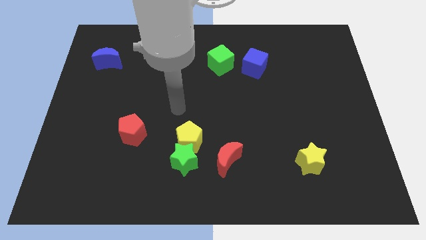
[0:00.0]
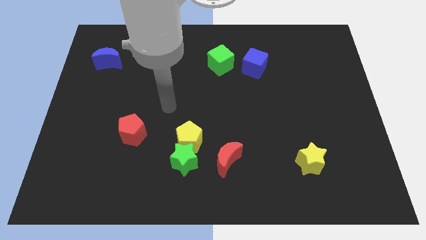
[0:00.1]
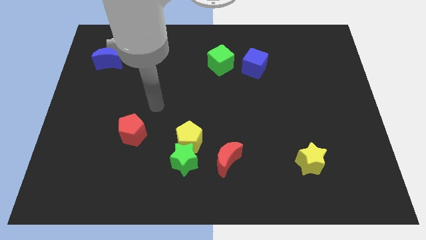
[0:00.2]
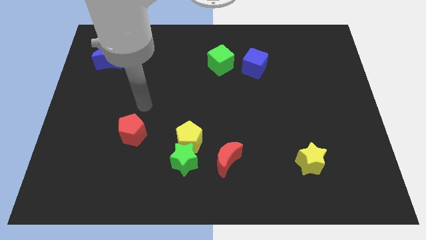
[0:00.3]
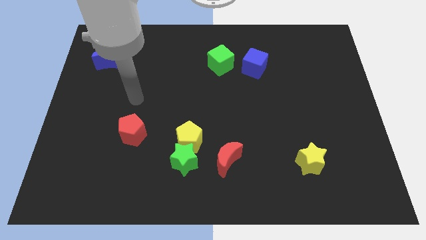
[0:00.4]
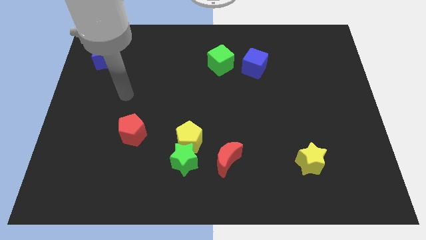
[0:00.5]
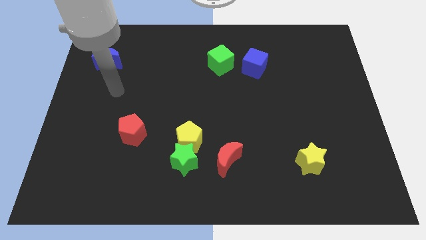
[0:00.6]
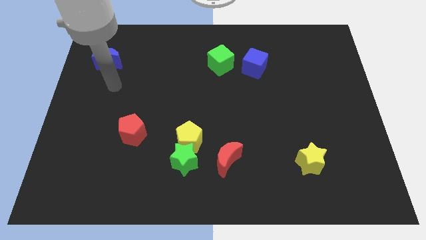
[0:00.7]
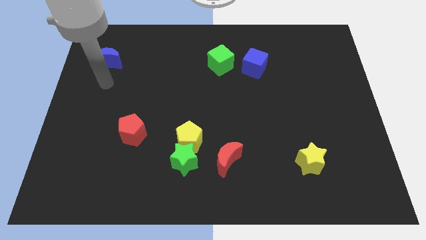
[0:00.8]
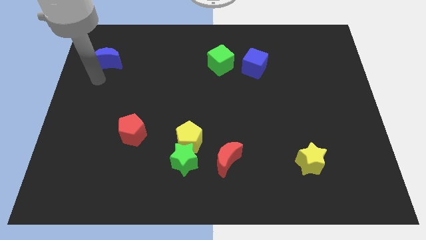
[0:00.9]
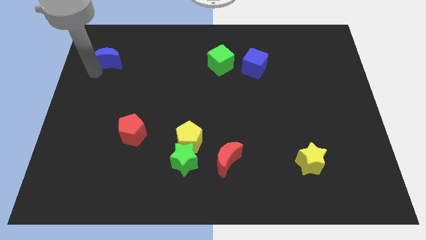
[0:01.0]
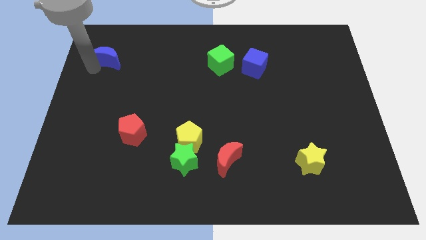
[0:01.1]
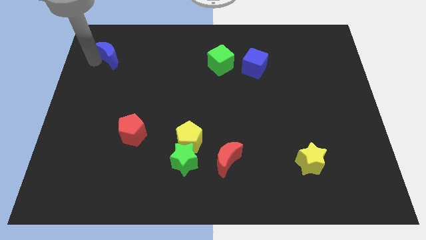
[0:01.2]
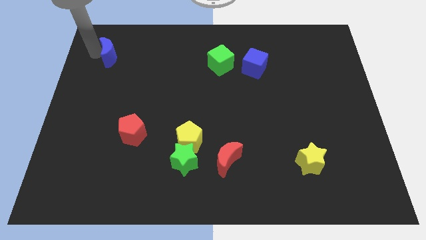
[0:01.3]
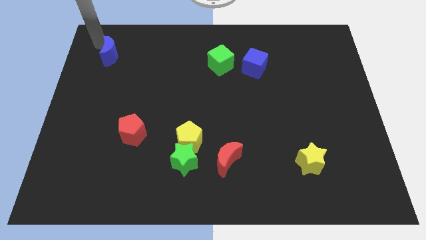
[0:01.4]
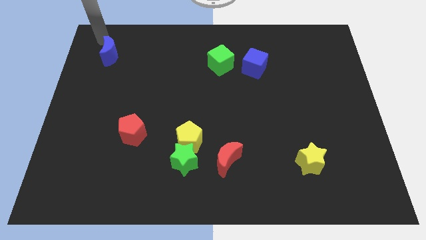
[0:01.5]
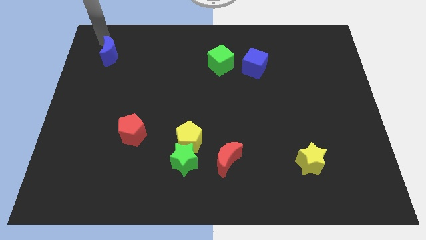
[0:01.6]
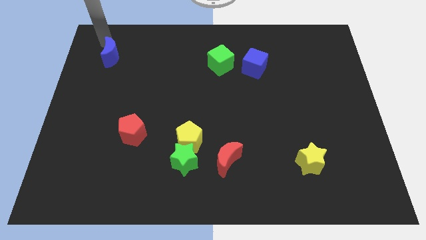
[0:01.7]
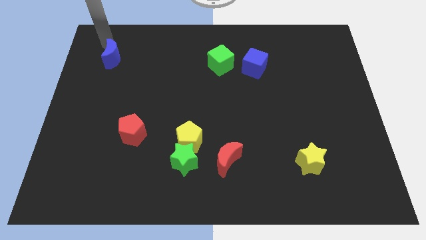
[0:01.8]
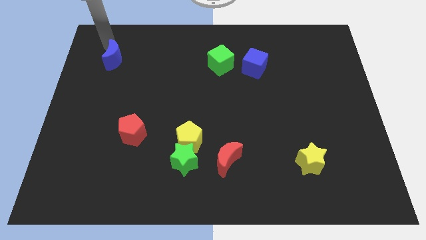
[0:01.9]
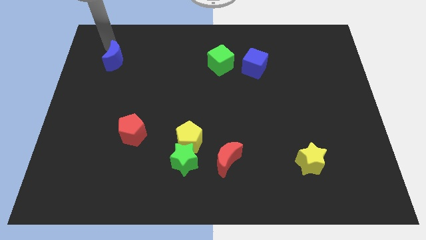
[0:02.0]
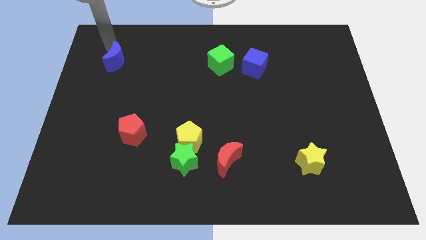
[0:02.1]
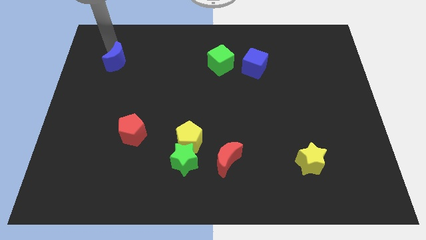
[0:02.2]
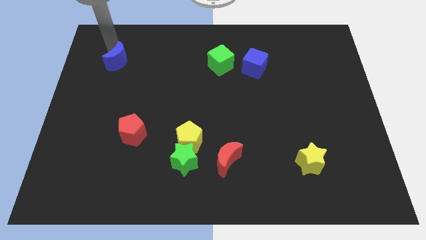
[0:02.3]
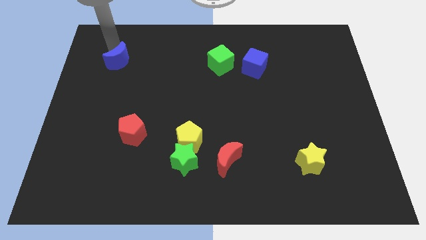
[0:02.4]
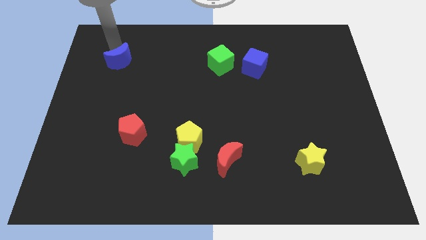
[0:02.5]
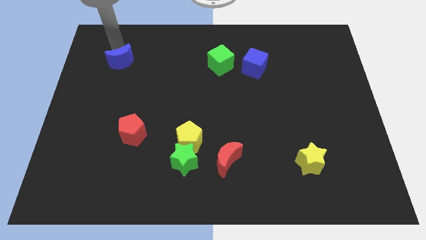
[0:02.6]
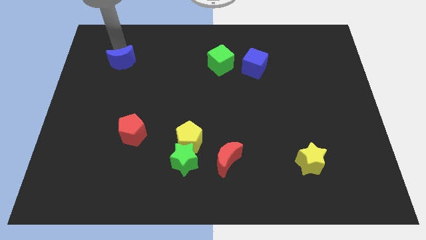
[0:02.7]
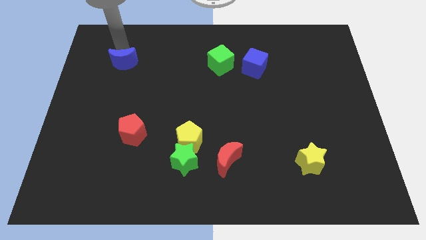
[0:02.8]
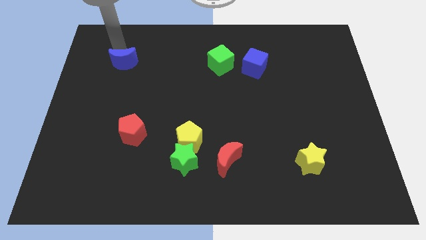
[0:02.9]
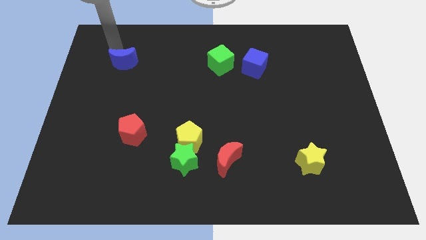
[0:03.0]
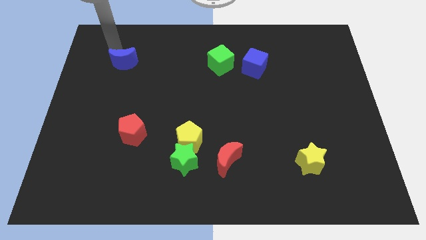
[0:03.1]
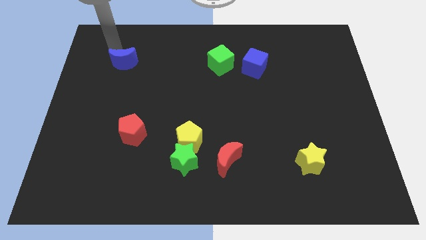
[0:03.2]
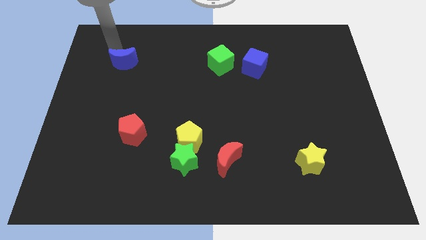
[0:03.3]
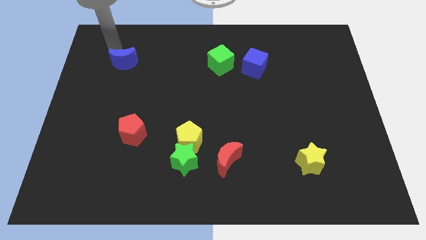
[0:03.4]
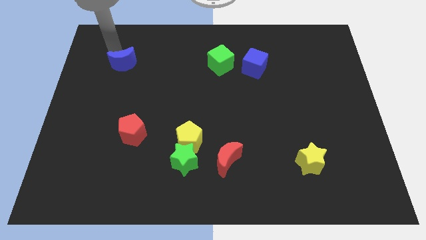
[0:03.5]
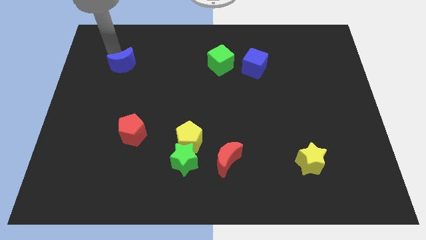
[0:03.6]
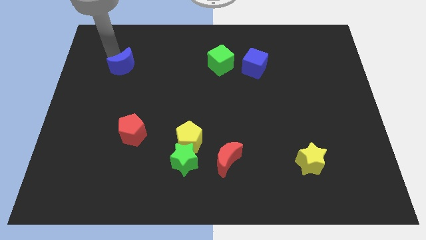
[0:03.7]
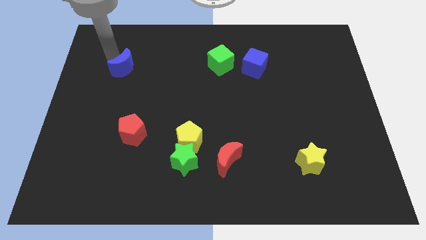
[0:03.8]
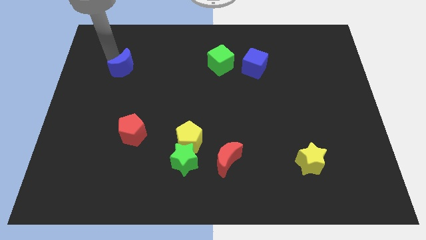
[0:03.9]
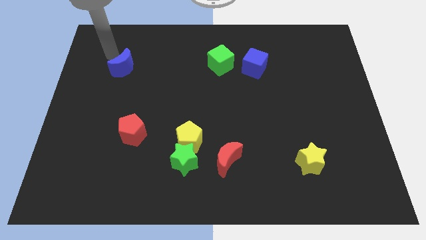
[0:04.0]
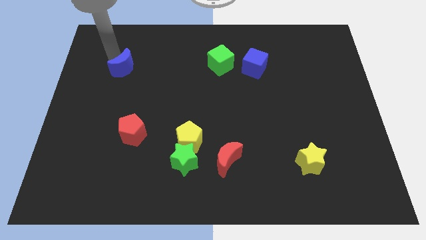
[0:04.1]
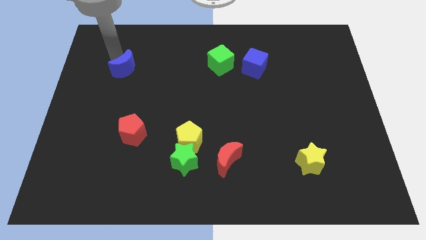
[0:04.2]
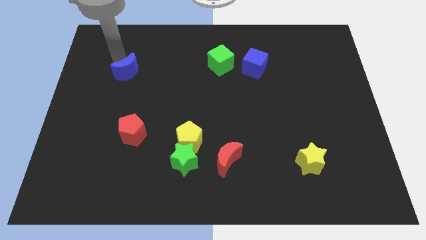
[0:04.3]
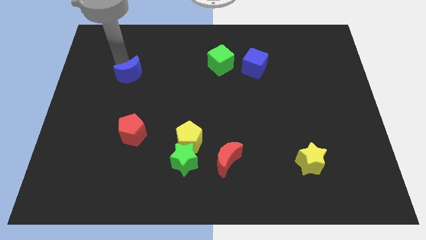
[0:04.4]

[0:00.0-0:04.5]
move the blue moon a little bit downwards and right diagonally

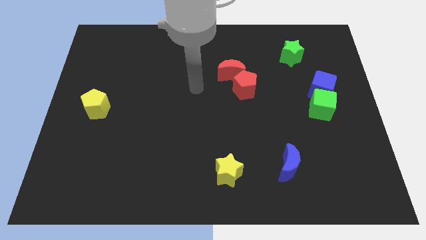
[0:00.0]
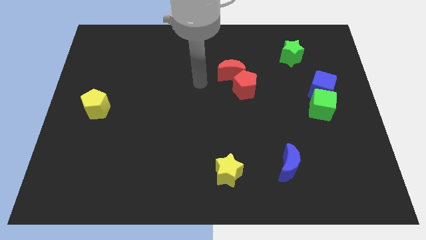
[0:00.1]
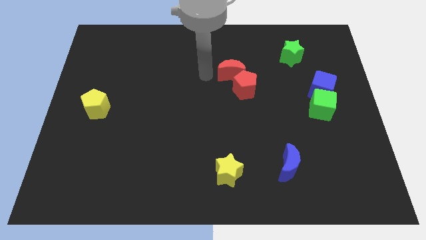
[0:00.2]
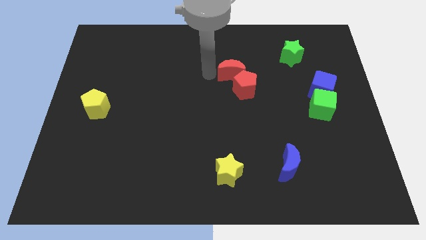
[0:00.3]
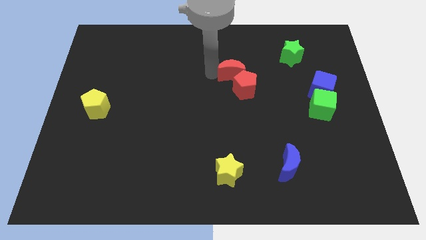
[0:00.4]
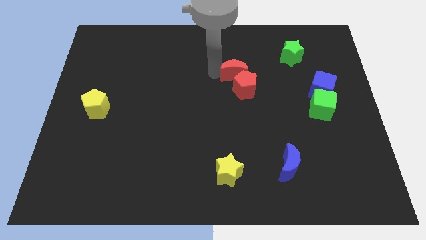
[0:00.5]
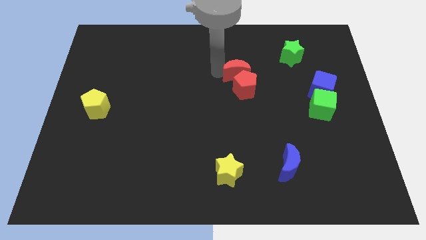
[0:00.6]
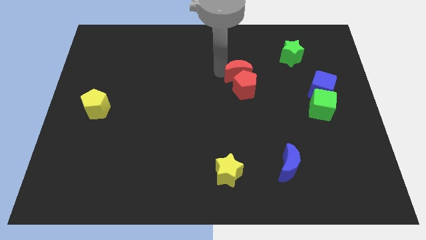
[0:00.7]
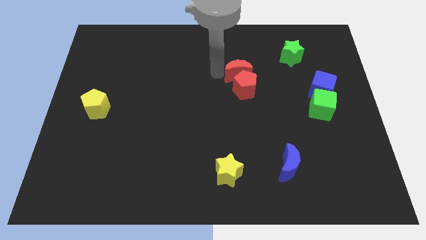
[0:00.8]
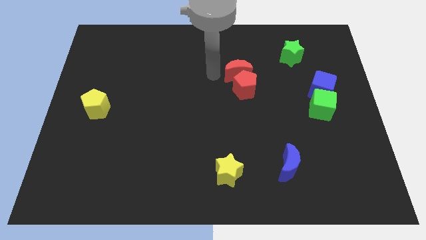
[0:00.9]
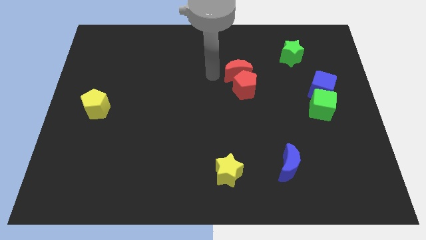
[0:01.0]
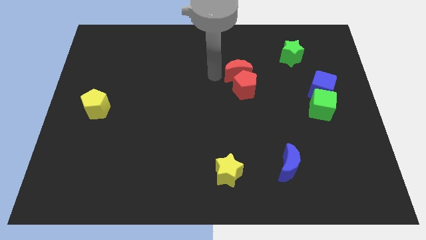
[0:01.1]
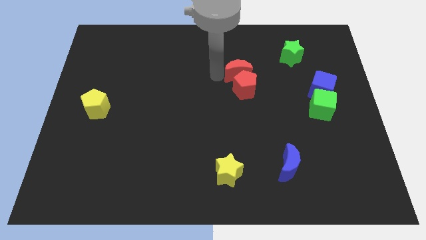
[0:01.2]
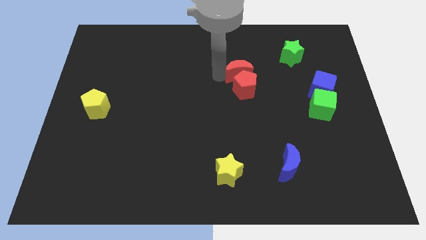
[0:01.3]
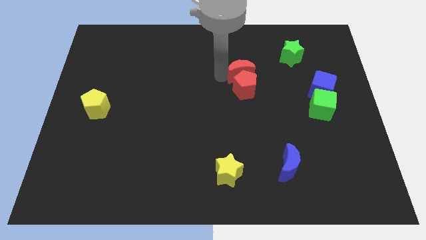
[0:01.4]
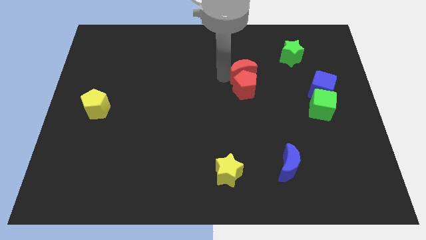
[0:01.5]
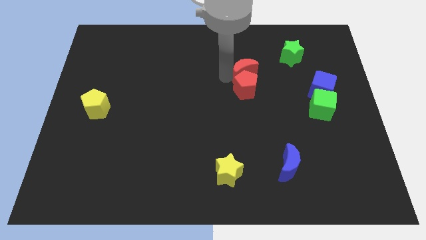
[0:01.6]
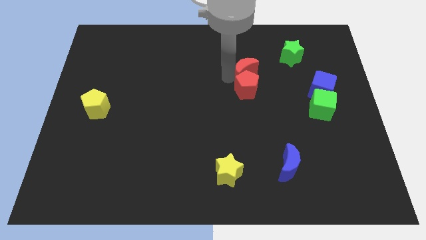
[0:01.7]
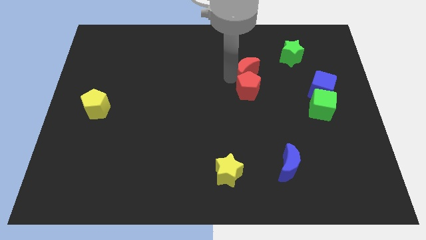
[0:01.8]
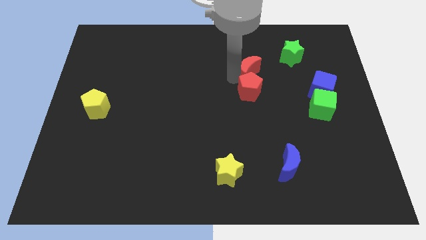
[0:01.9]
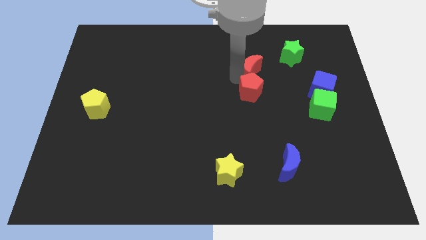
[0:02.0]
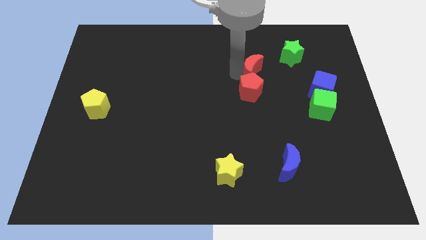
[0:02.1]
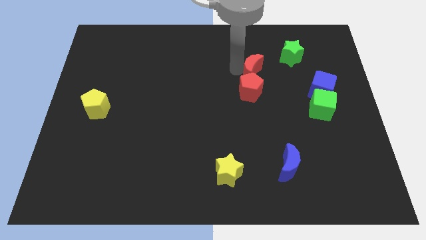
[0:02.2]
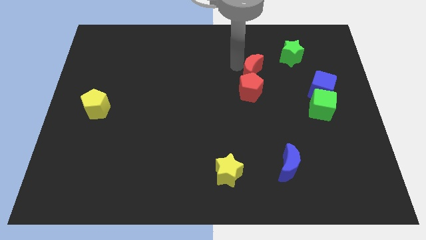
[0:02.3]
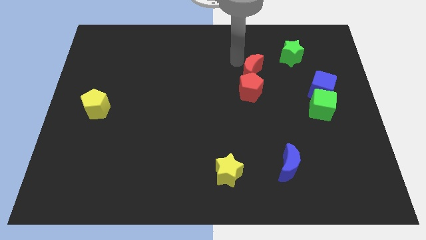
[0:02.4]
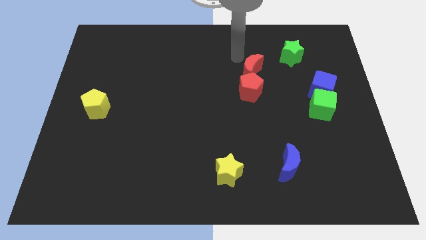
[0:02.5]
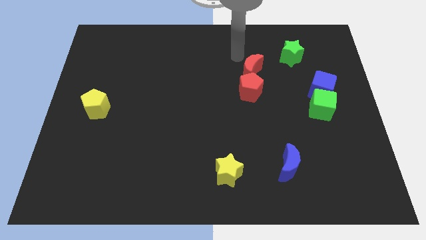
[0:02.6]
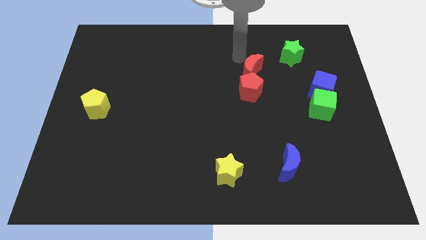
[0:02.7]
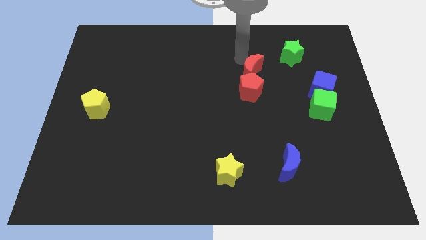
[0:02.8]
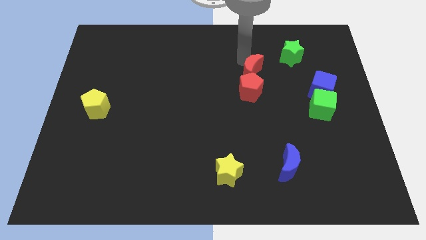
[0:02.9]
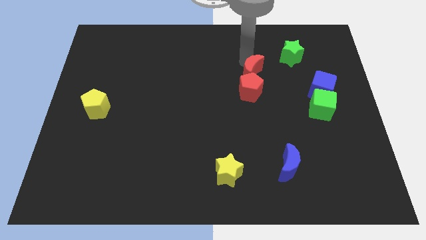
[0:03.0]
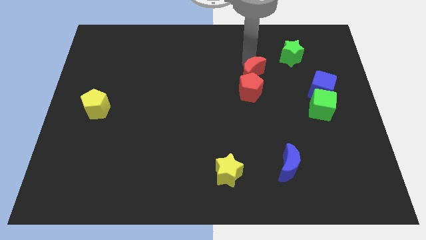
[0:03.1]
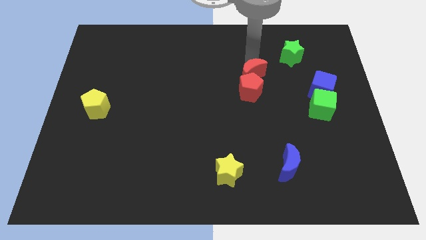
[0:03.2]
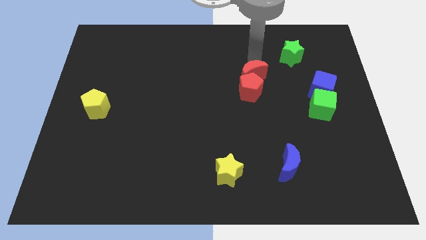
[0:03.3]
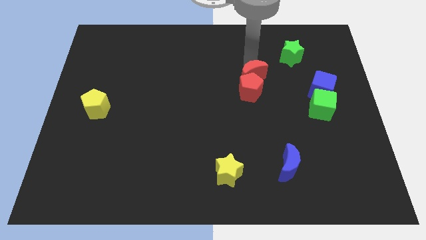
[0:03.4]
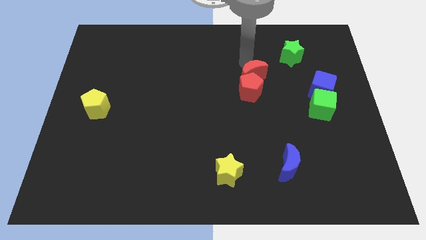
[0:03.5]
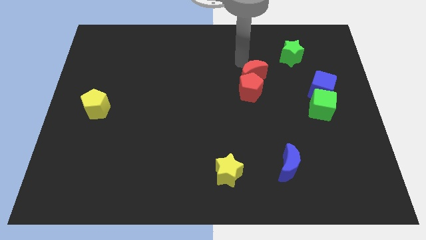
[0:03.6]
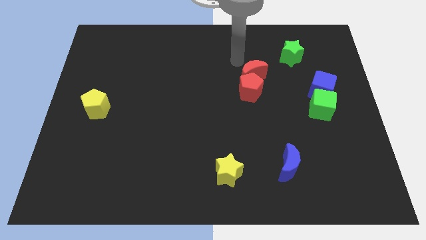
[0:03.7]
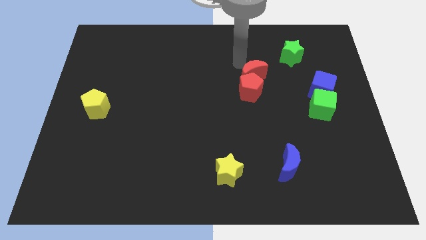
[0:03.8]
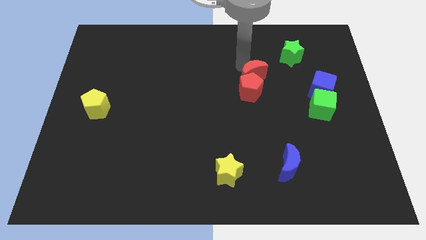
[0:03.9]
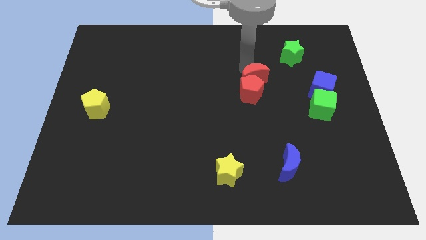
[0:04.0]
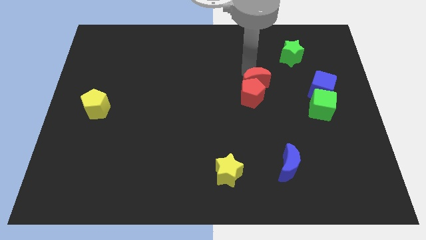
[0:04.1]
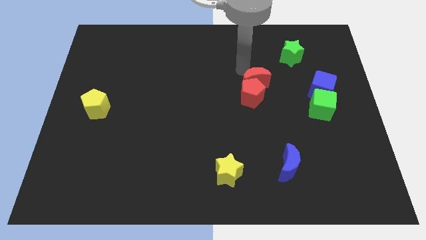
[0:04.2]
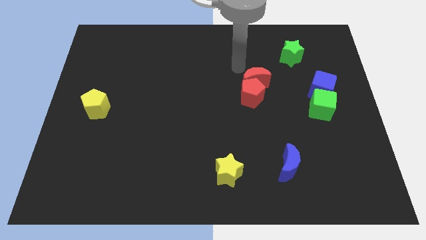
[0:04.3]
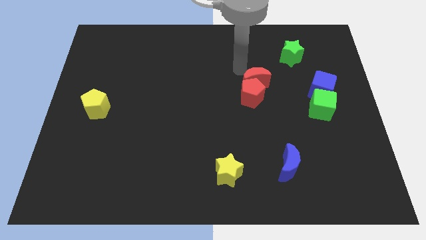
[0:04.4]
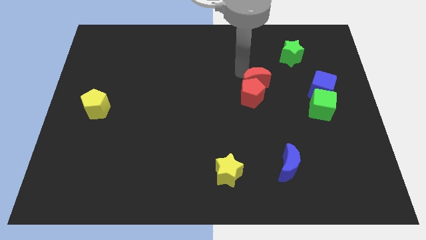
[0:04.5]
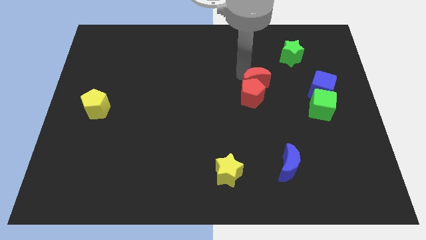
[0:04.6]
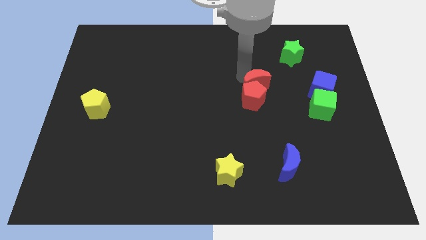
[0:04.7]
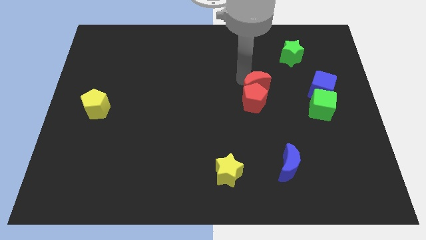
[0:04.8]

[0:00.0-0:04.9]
slide the red moon a little bit down and right
